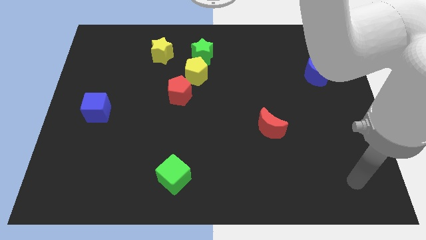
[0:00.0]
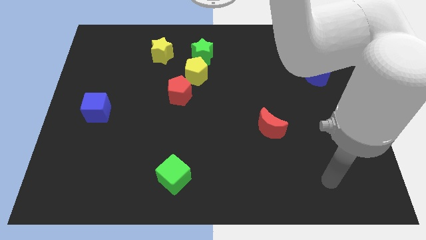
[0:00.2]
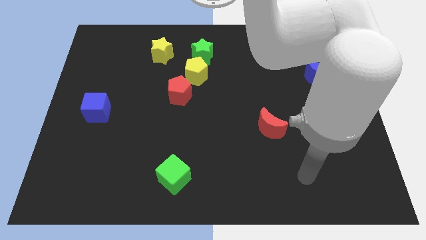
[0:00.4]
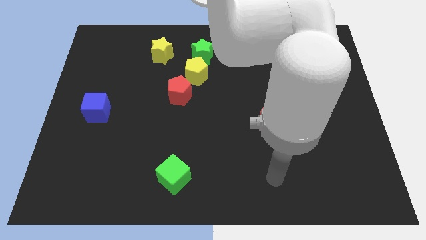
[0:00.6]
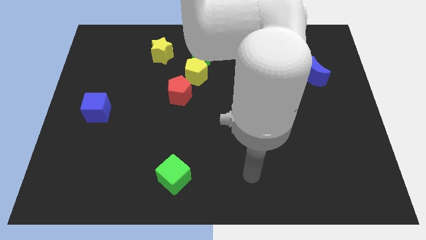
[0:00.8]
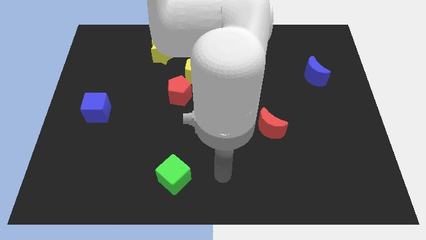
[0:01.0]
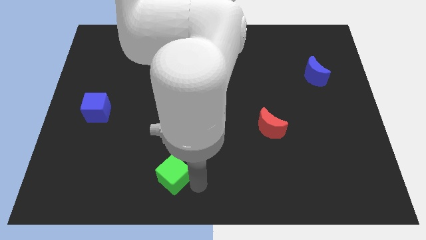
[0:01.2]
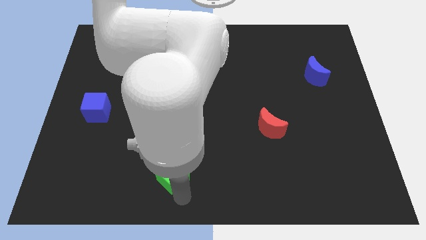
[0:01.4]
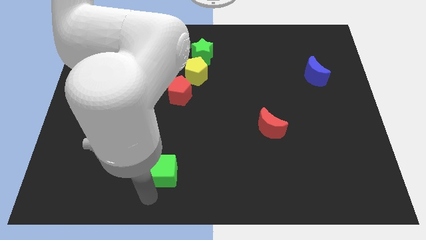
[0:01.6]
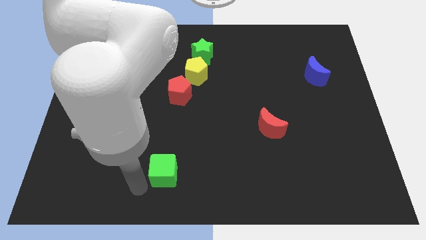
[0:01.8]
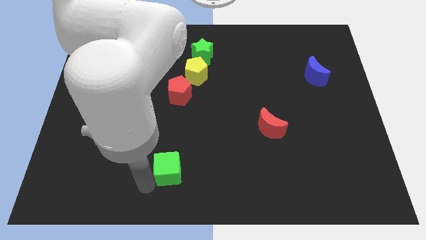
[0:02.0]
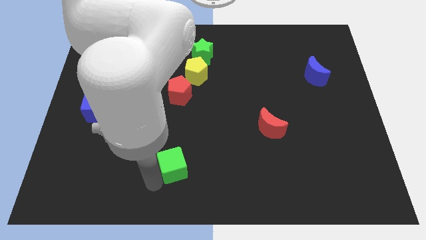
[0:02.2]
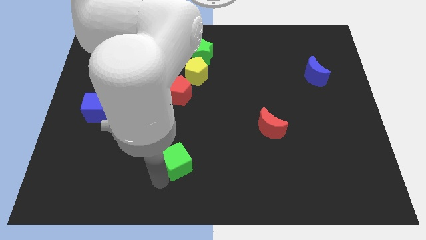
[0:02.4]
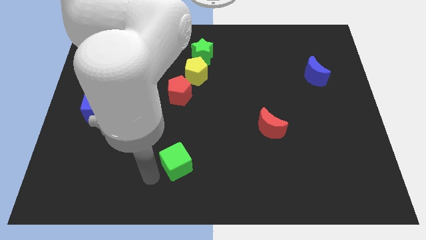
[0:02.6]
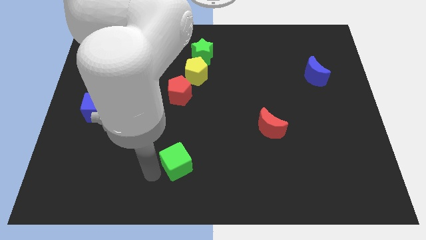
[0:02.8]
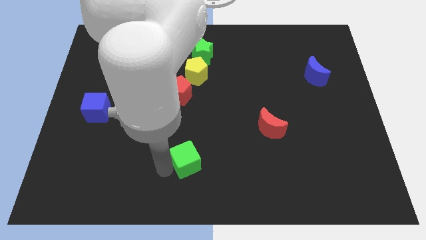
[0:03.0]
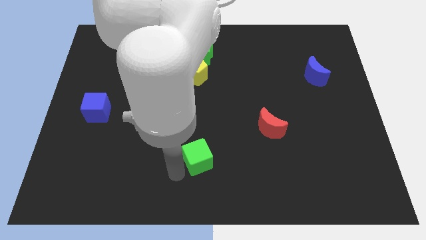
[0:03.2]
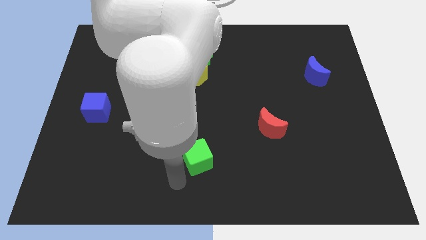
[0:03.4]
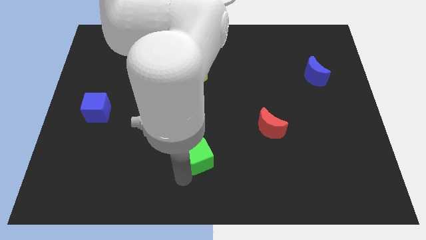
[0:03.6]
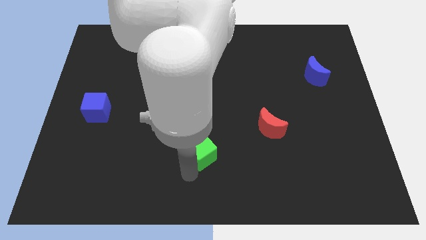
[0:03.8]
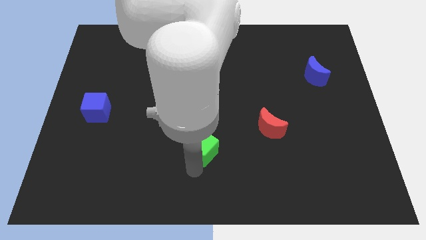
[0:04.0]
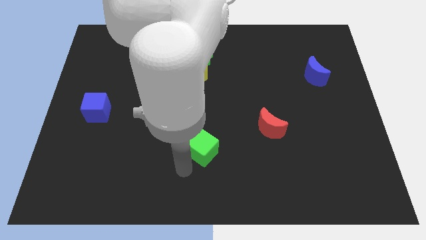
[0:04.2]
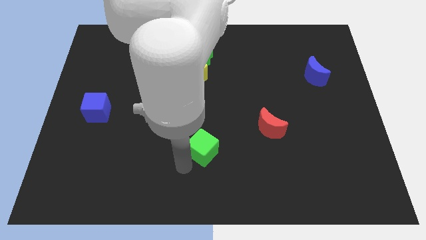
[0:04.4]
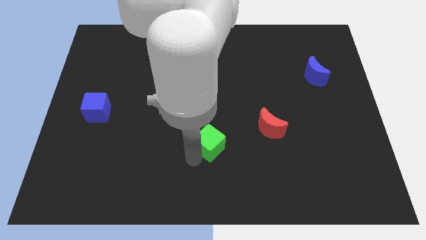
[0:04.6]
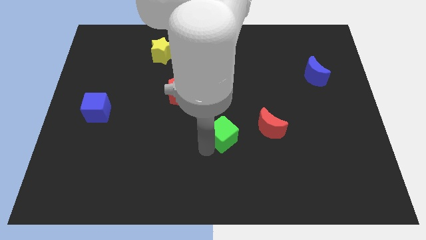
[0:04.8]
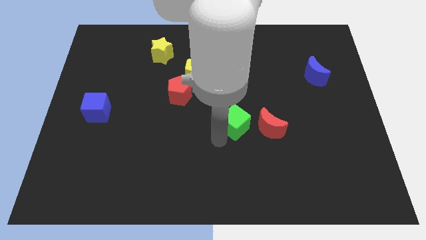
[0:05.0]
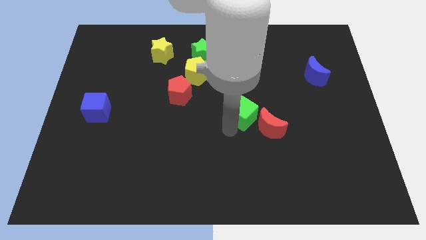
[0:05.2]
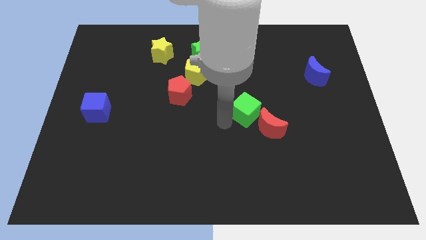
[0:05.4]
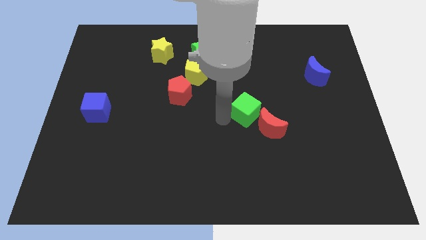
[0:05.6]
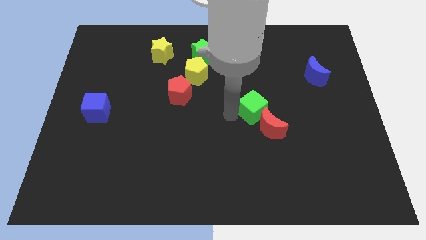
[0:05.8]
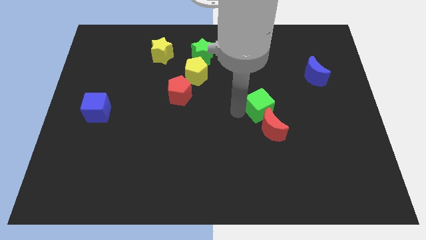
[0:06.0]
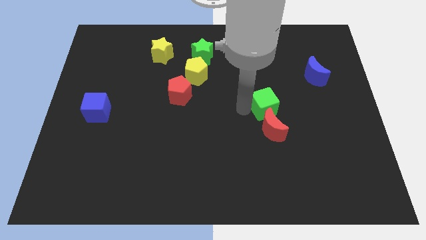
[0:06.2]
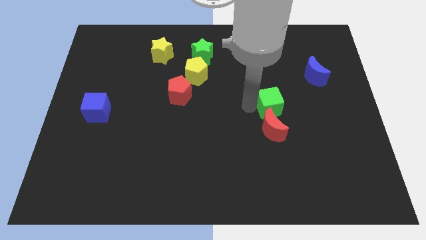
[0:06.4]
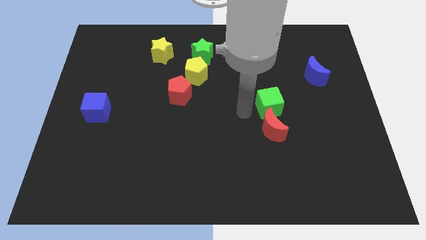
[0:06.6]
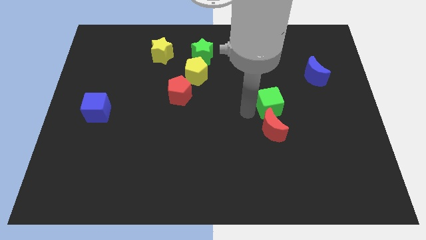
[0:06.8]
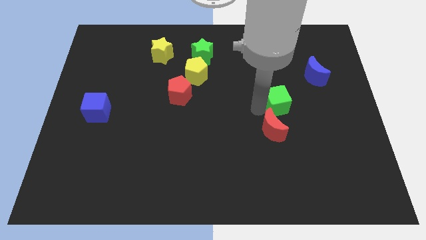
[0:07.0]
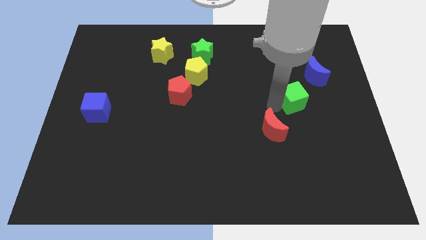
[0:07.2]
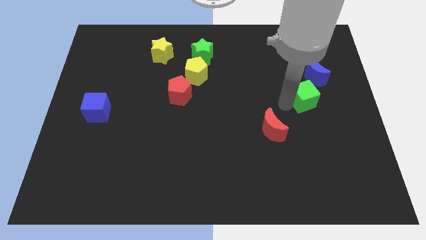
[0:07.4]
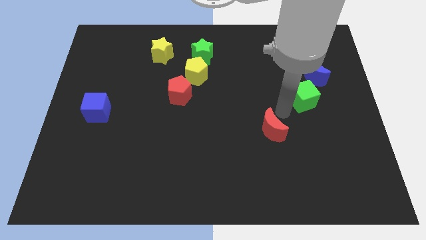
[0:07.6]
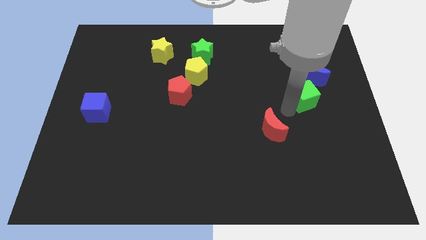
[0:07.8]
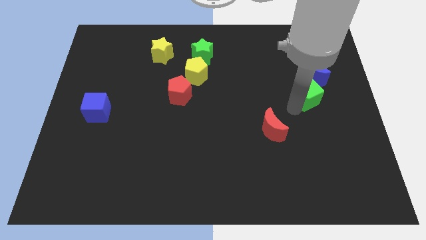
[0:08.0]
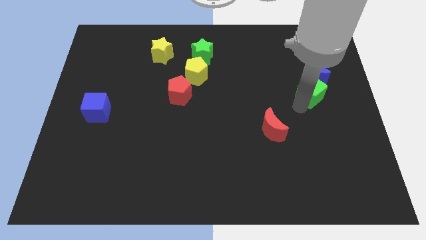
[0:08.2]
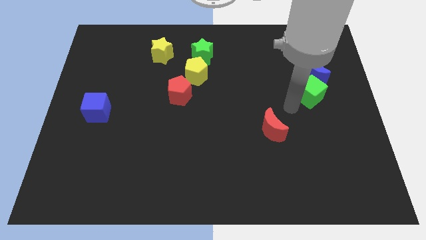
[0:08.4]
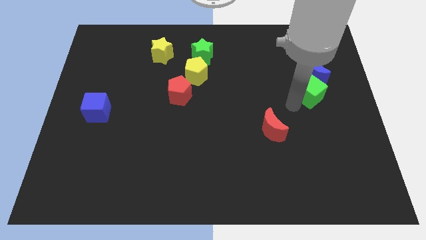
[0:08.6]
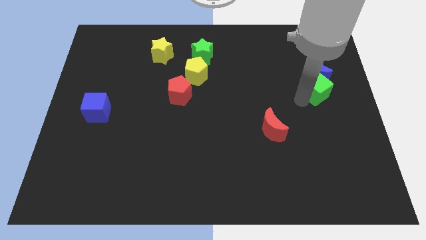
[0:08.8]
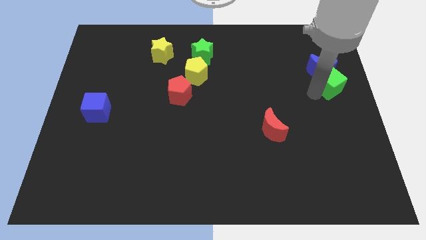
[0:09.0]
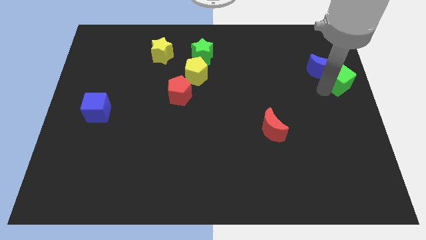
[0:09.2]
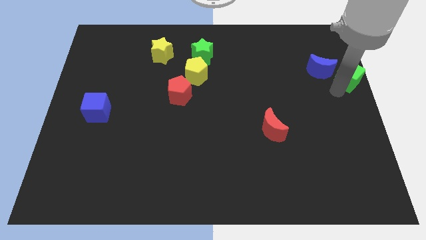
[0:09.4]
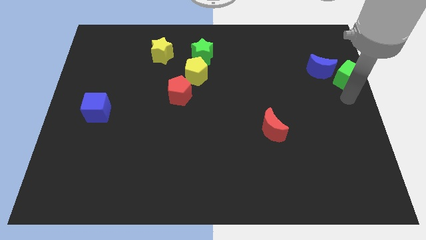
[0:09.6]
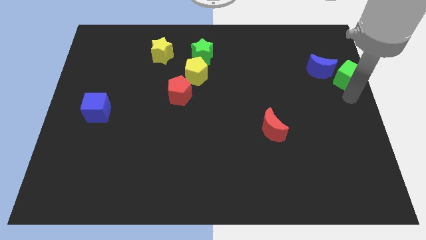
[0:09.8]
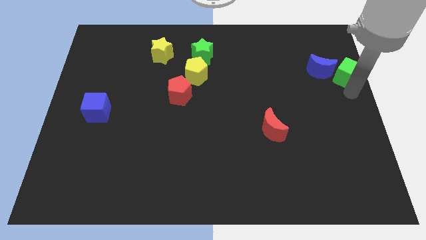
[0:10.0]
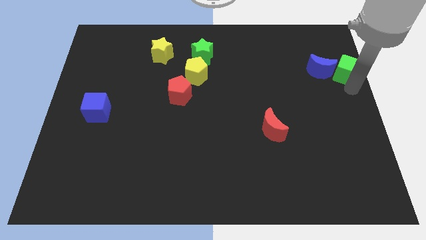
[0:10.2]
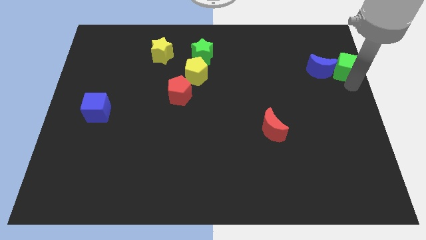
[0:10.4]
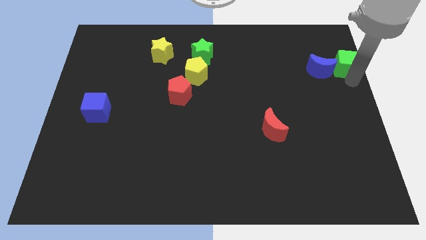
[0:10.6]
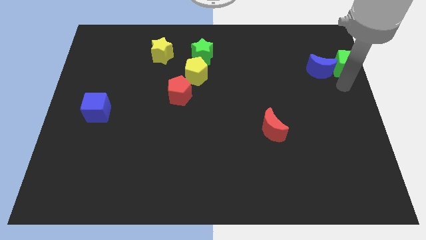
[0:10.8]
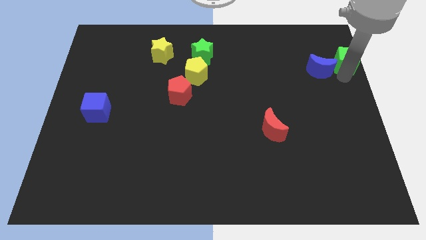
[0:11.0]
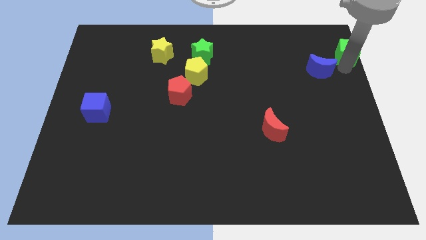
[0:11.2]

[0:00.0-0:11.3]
slide the green cube to the top right of the board

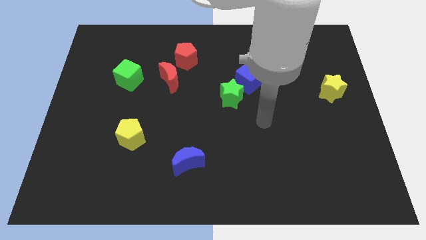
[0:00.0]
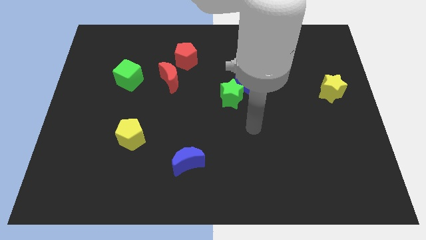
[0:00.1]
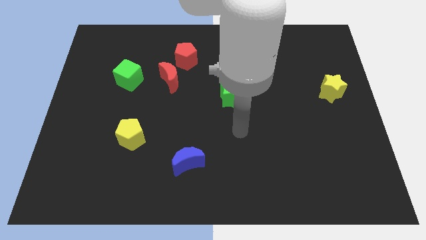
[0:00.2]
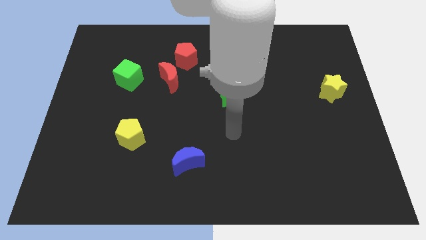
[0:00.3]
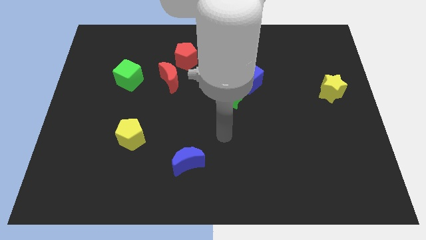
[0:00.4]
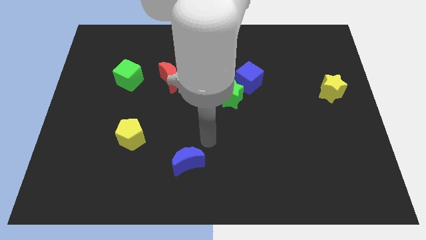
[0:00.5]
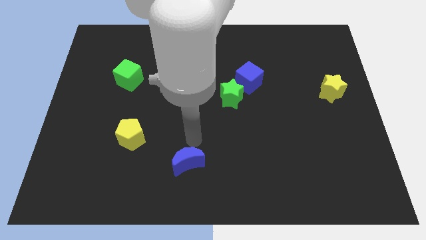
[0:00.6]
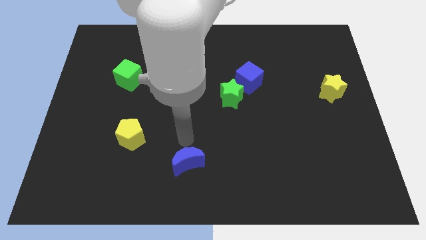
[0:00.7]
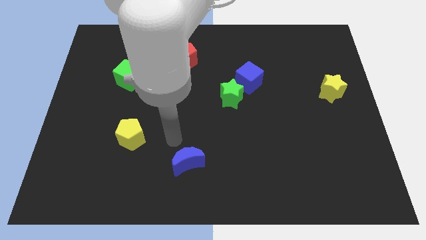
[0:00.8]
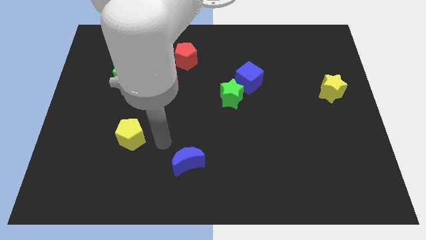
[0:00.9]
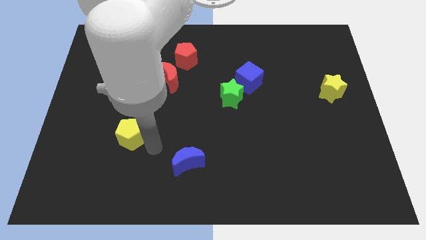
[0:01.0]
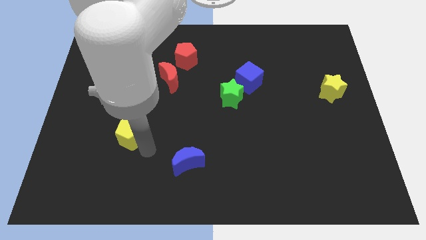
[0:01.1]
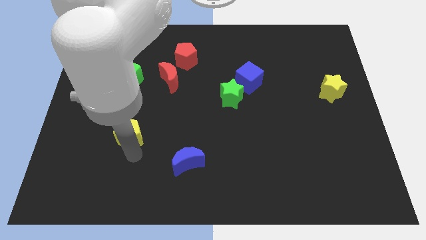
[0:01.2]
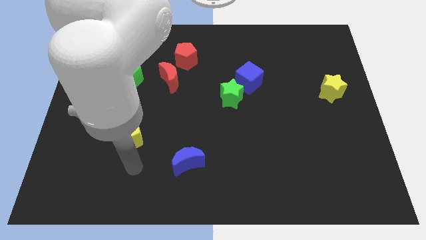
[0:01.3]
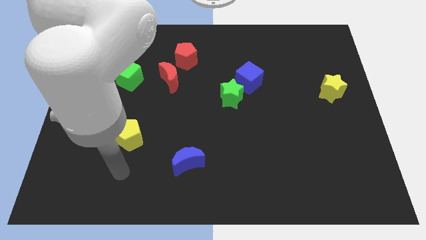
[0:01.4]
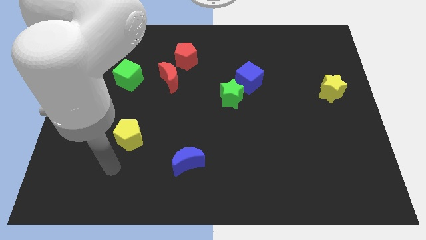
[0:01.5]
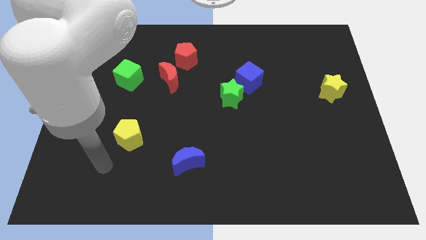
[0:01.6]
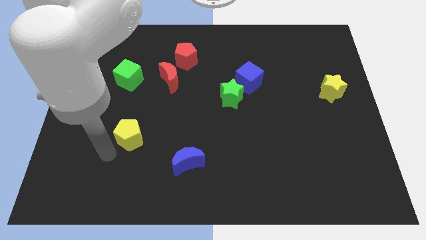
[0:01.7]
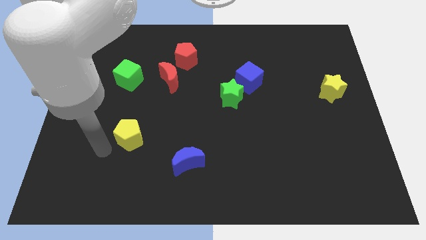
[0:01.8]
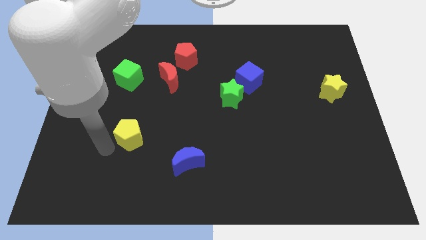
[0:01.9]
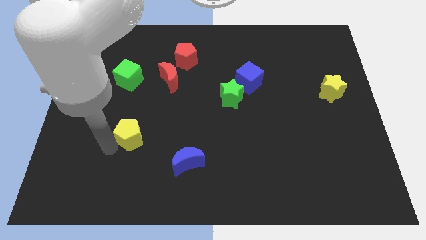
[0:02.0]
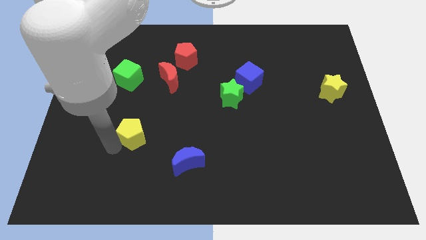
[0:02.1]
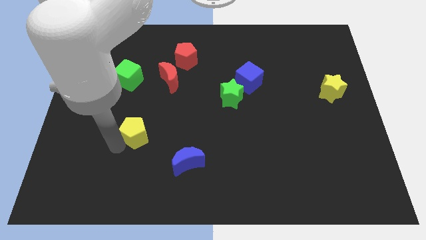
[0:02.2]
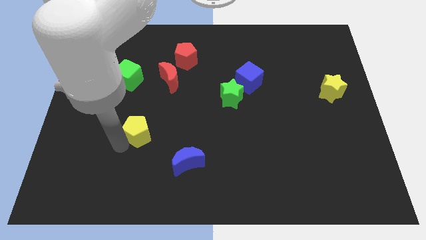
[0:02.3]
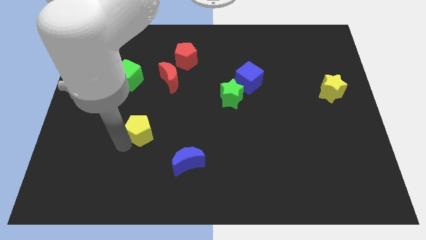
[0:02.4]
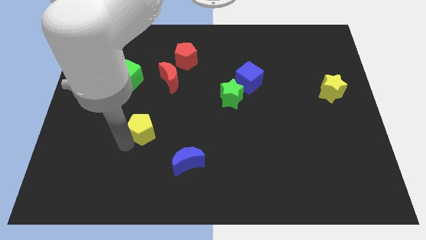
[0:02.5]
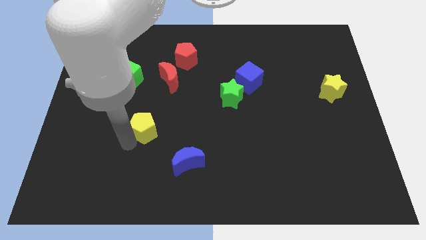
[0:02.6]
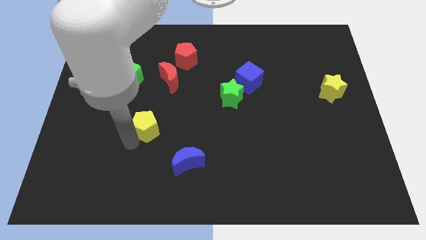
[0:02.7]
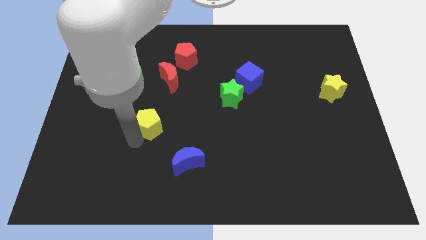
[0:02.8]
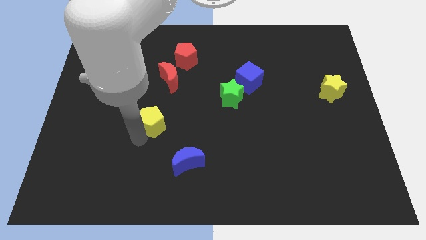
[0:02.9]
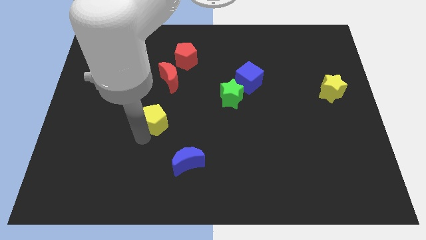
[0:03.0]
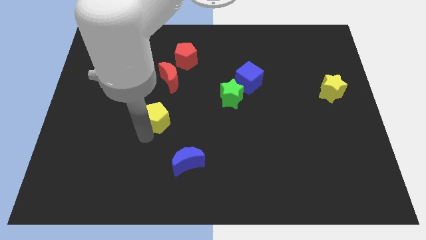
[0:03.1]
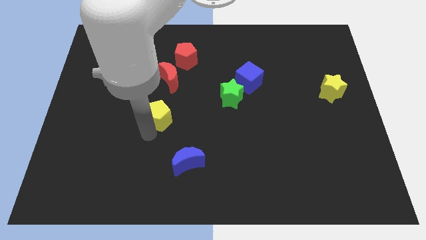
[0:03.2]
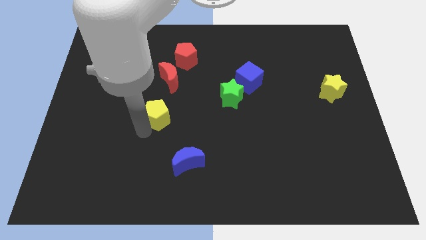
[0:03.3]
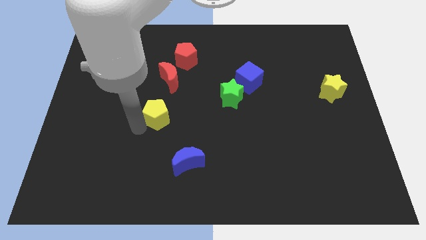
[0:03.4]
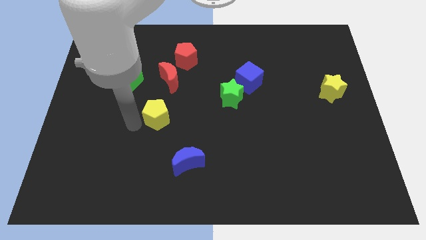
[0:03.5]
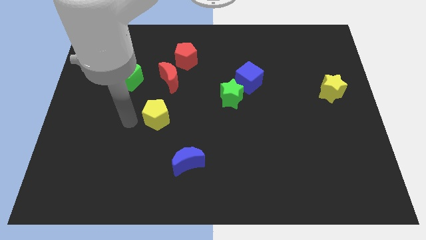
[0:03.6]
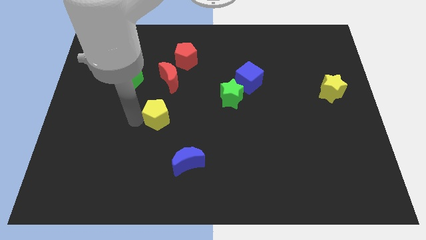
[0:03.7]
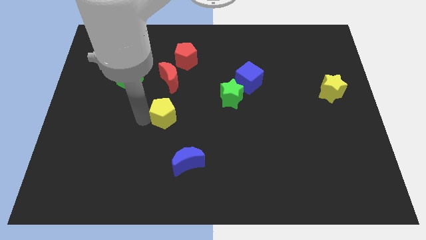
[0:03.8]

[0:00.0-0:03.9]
push the yellow pentagon to the middle
